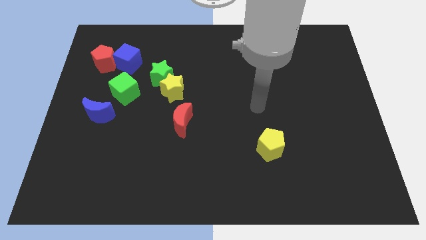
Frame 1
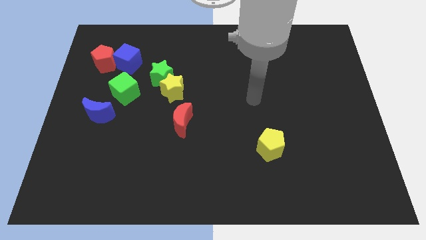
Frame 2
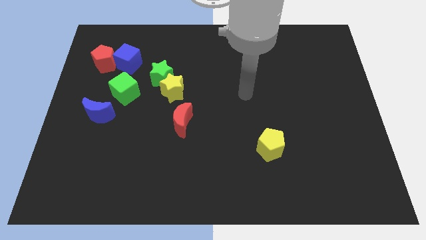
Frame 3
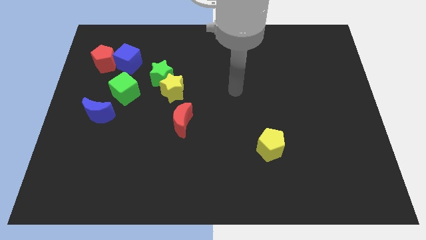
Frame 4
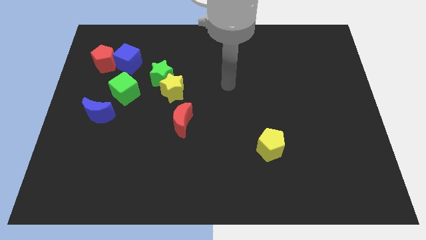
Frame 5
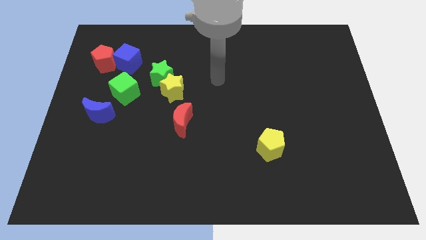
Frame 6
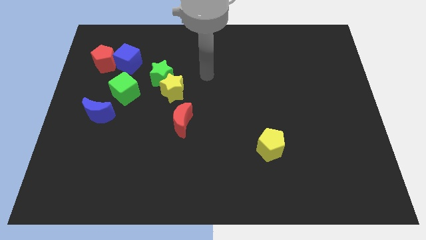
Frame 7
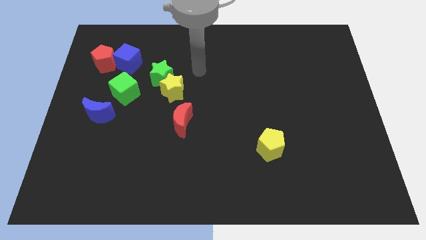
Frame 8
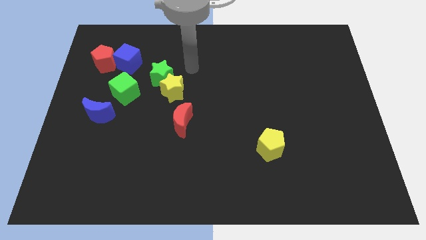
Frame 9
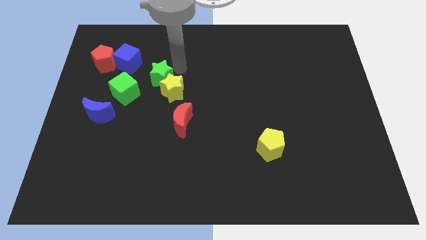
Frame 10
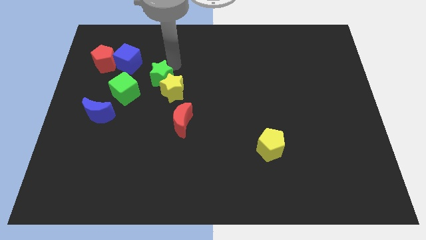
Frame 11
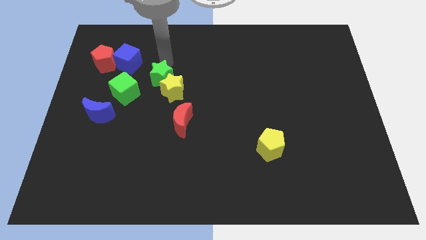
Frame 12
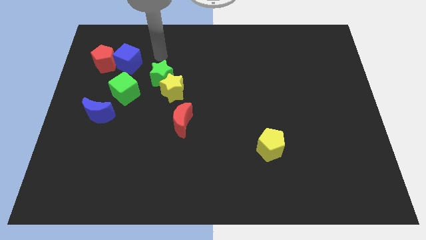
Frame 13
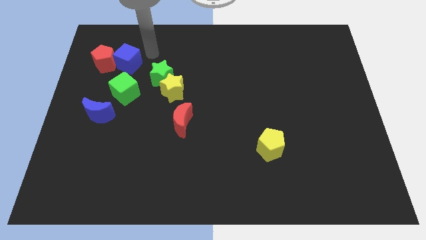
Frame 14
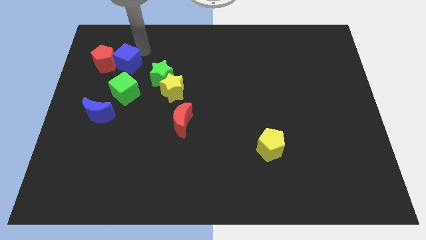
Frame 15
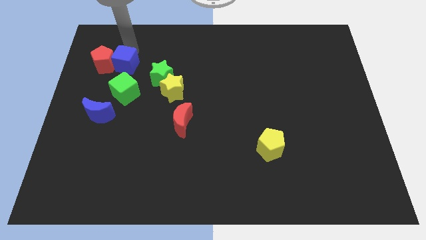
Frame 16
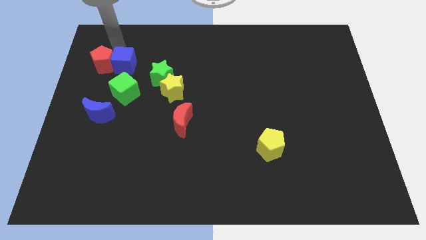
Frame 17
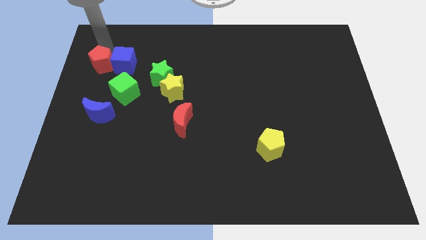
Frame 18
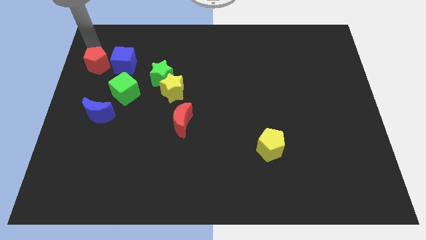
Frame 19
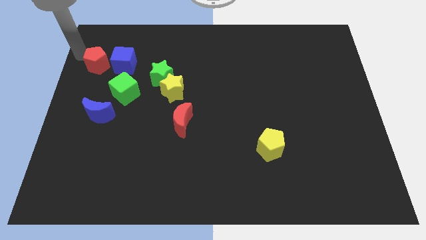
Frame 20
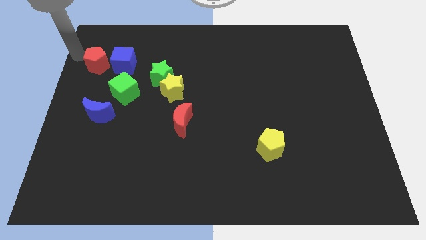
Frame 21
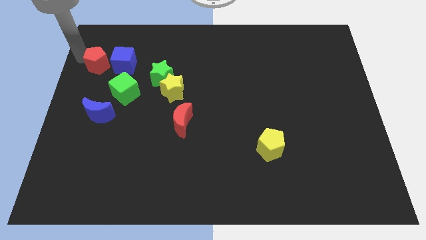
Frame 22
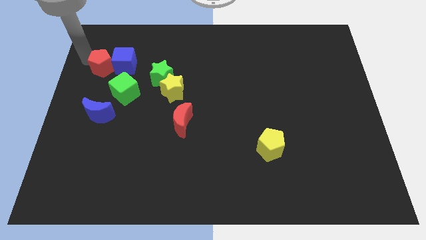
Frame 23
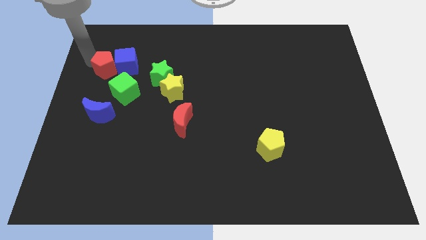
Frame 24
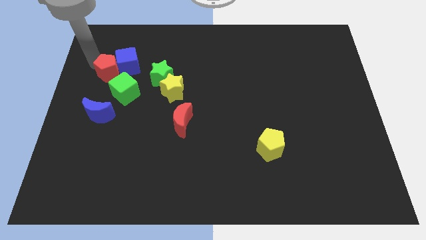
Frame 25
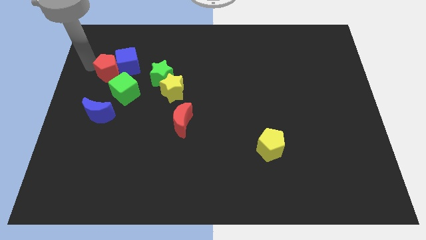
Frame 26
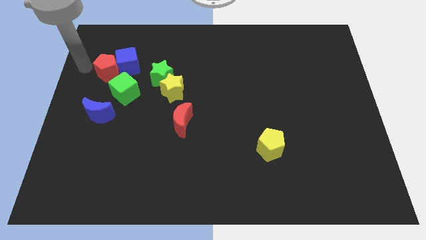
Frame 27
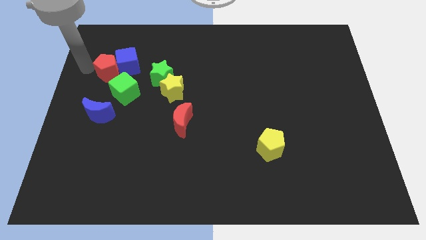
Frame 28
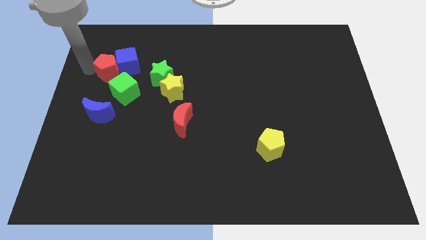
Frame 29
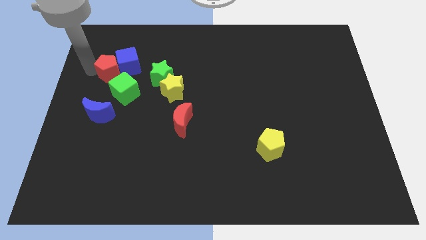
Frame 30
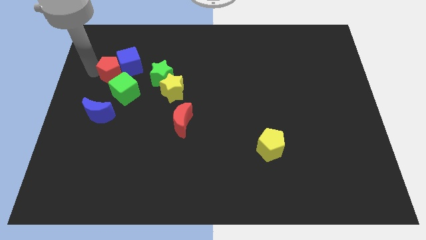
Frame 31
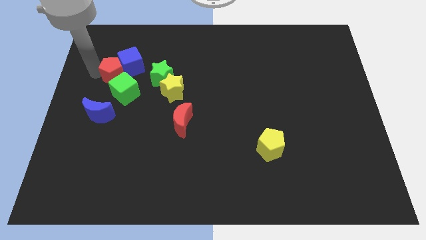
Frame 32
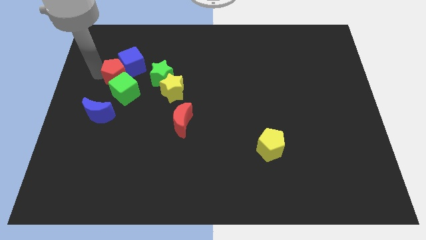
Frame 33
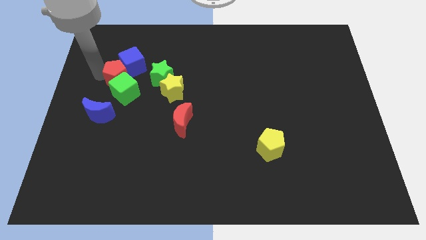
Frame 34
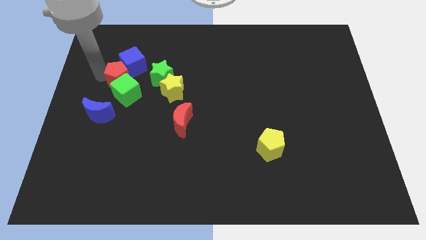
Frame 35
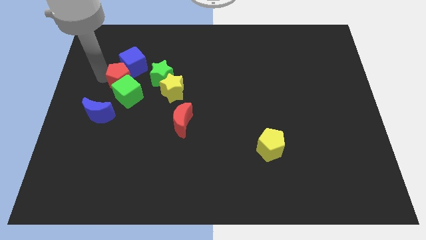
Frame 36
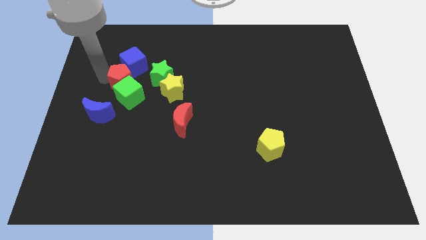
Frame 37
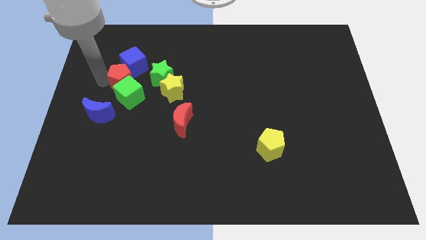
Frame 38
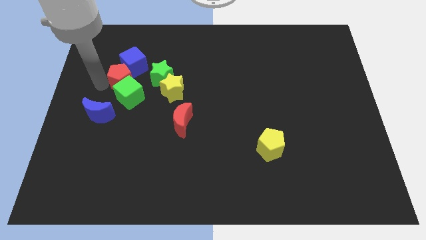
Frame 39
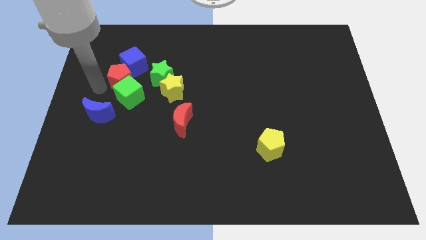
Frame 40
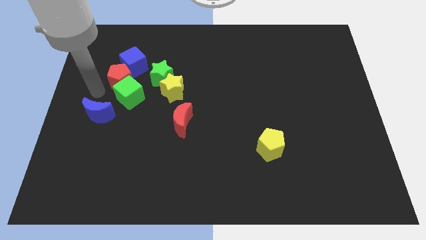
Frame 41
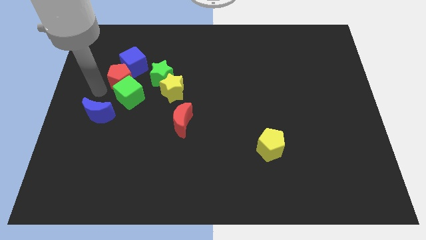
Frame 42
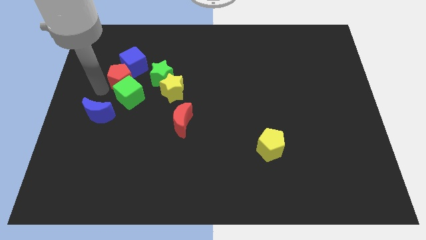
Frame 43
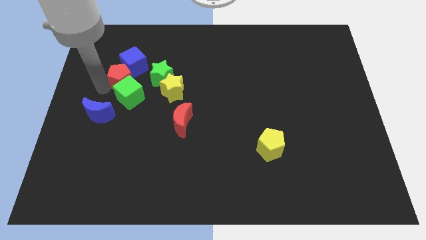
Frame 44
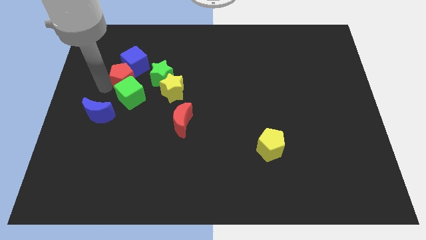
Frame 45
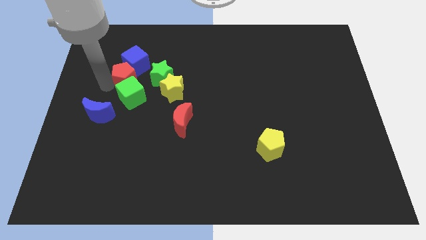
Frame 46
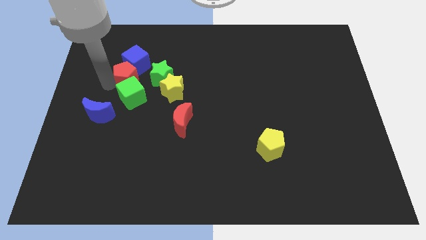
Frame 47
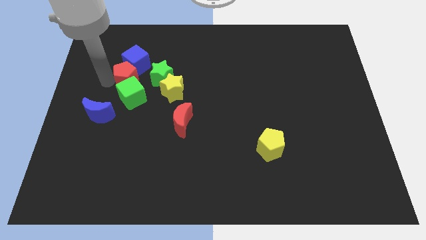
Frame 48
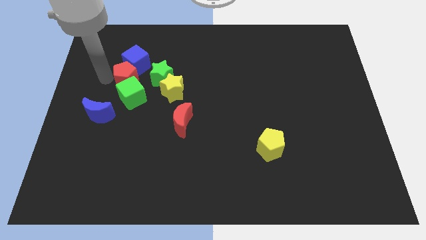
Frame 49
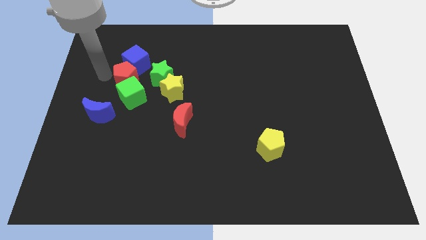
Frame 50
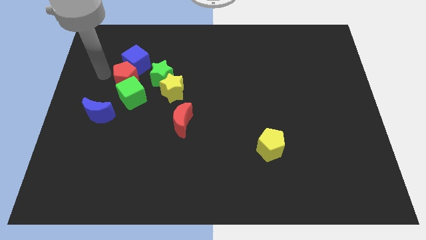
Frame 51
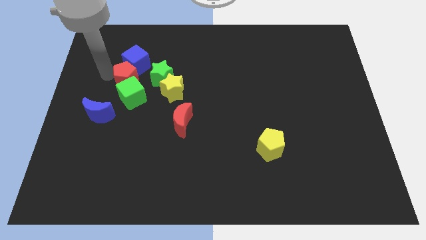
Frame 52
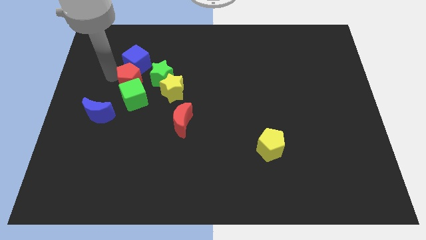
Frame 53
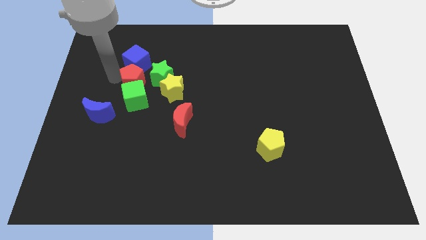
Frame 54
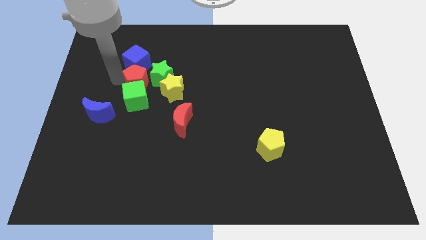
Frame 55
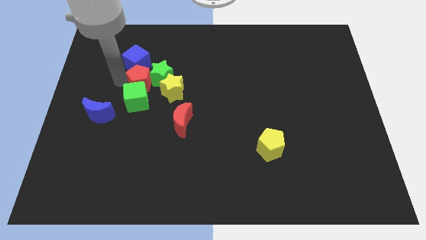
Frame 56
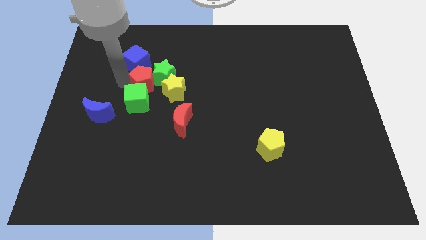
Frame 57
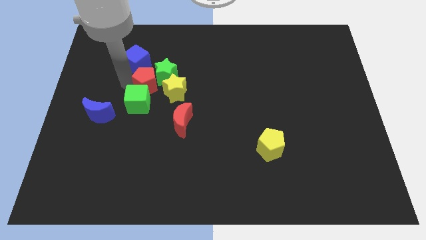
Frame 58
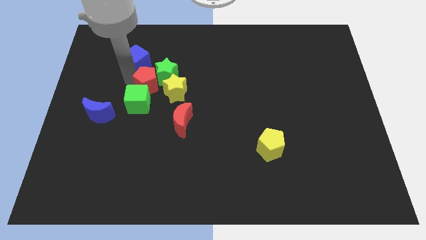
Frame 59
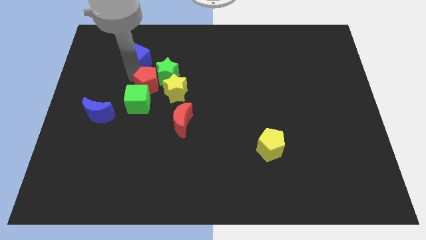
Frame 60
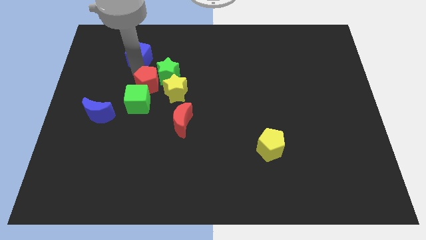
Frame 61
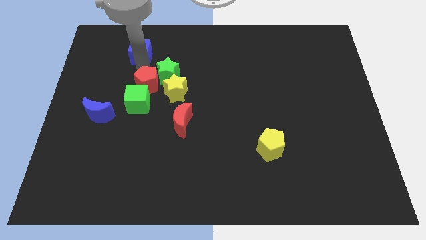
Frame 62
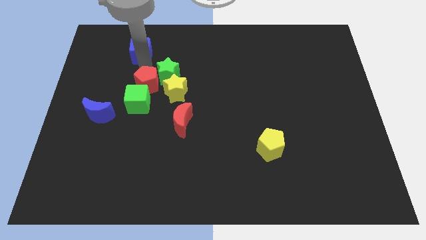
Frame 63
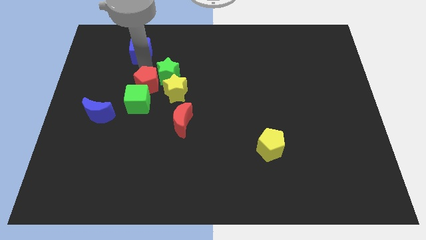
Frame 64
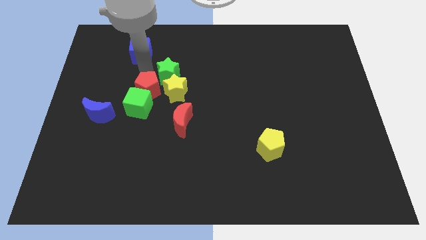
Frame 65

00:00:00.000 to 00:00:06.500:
put the red pentagon to the bottom left of the yellow star
